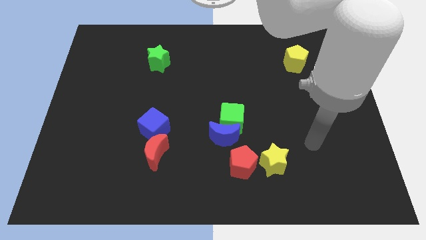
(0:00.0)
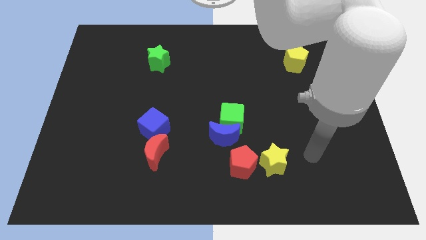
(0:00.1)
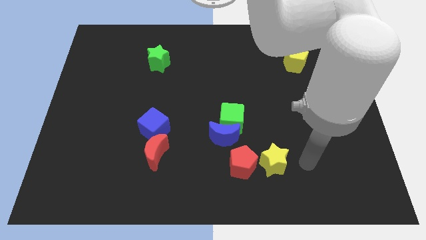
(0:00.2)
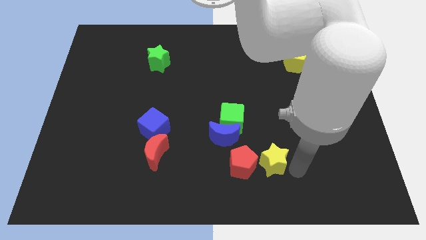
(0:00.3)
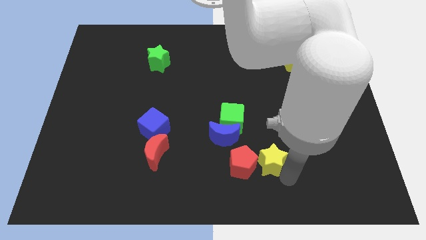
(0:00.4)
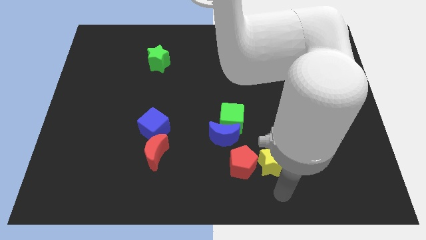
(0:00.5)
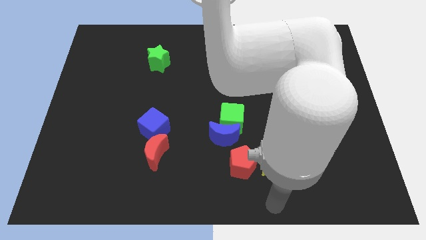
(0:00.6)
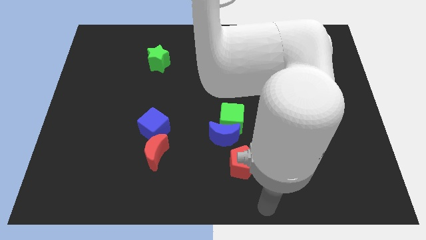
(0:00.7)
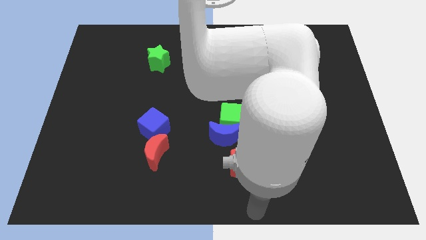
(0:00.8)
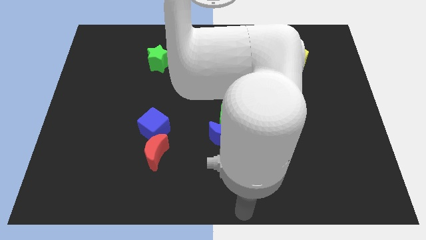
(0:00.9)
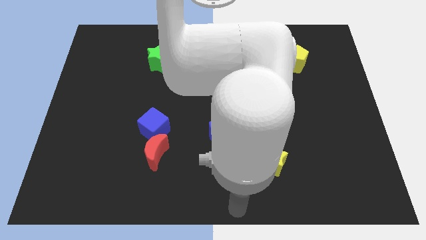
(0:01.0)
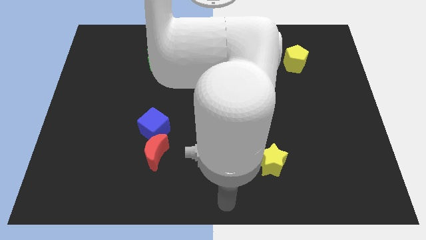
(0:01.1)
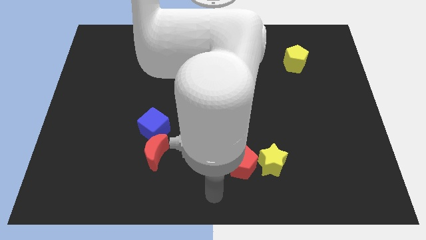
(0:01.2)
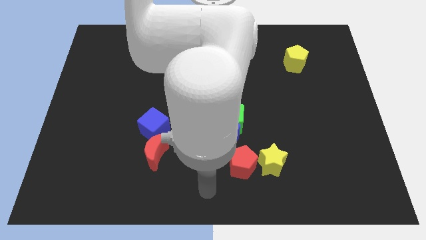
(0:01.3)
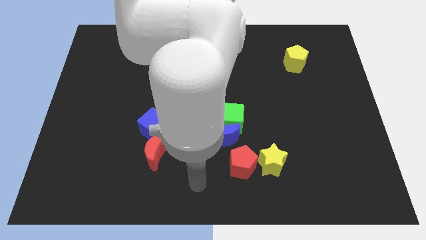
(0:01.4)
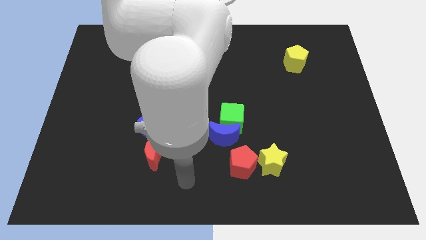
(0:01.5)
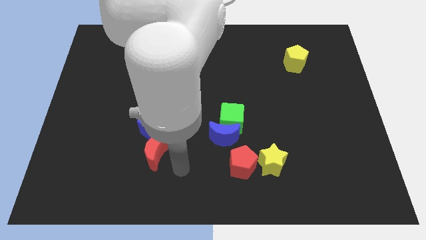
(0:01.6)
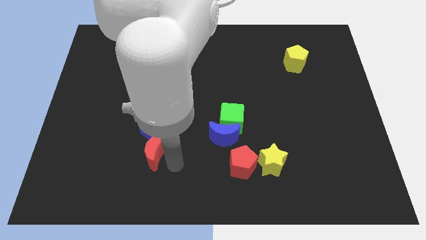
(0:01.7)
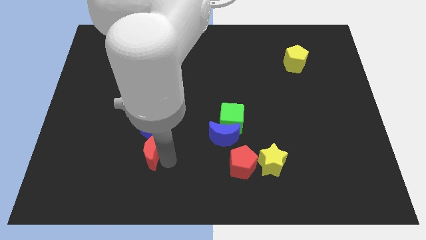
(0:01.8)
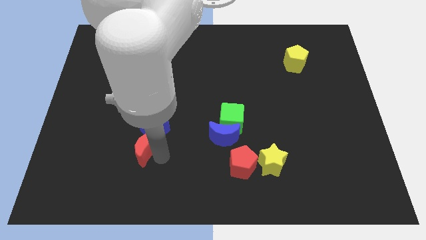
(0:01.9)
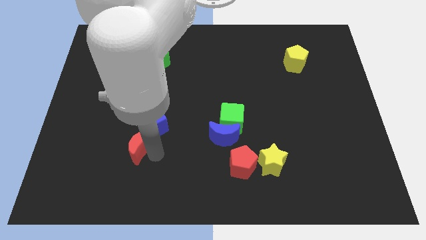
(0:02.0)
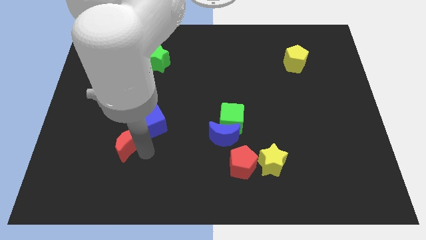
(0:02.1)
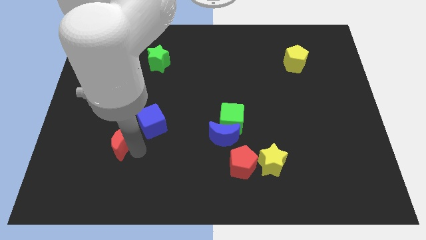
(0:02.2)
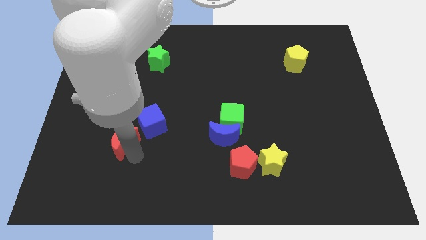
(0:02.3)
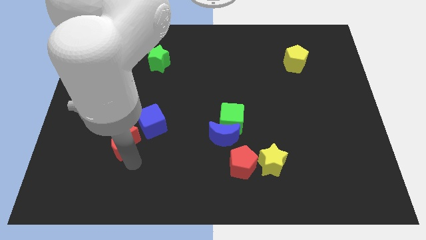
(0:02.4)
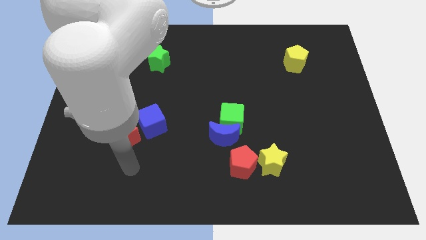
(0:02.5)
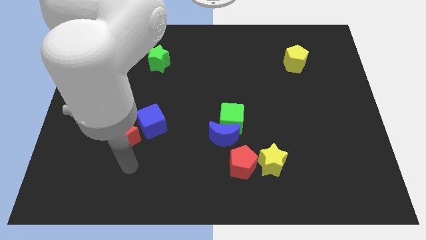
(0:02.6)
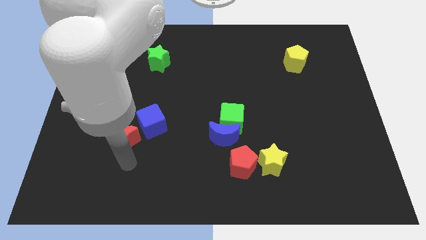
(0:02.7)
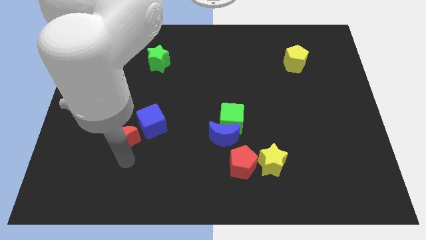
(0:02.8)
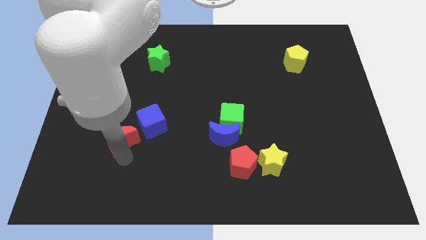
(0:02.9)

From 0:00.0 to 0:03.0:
move the red moon a little bit diagonally up and left

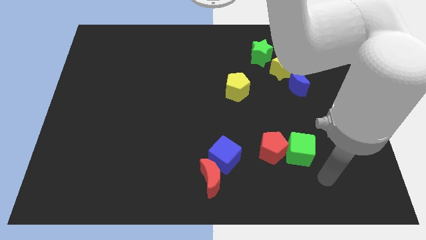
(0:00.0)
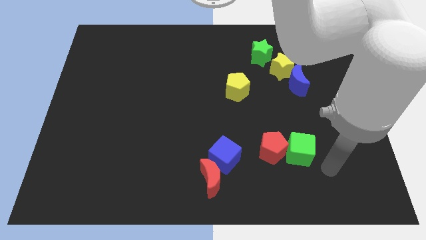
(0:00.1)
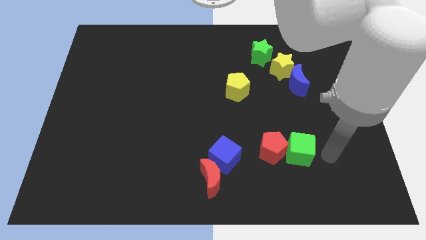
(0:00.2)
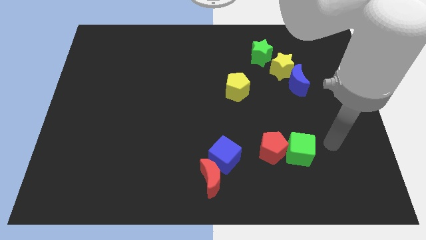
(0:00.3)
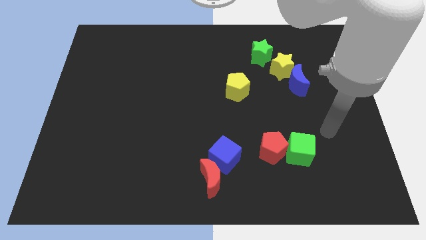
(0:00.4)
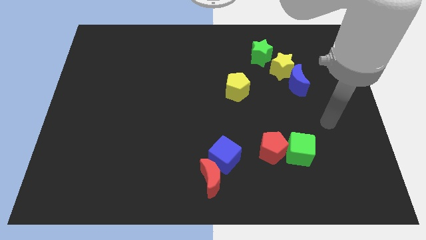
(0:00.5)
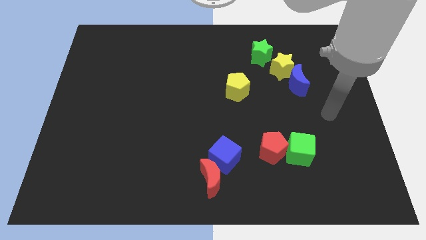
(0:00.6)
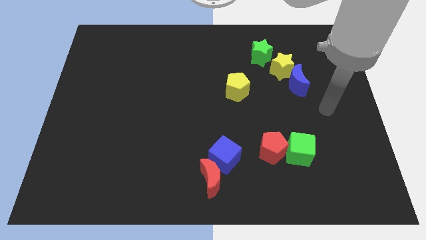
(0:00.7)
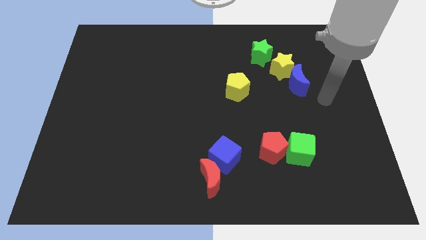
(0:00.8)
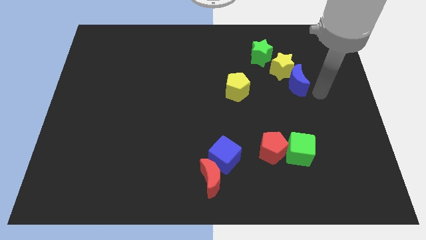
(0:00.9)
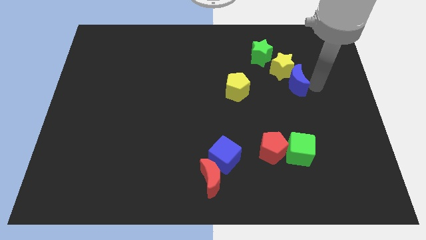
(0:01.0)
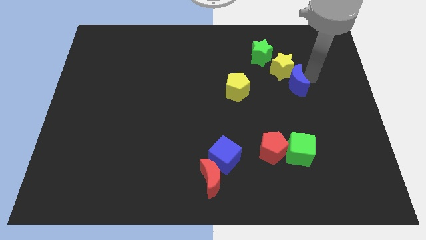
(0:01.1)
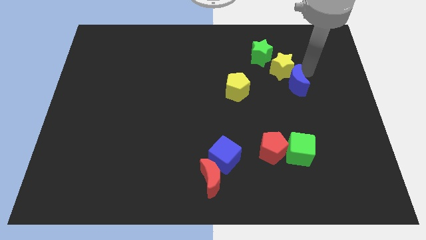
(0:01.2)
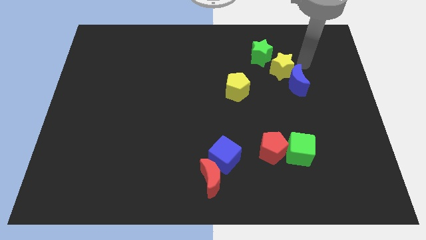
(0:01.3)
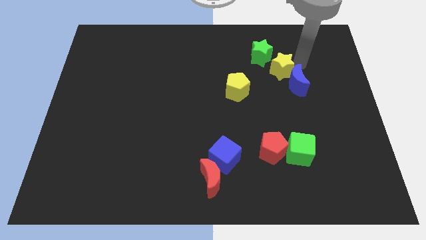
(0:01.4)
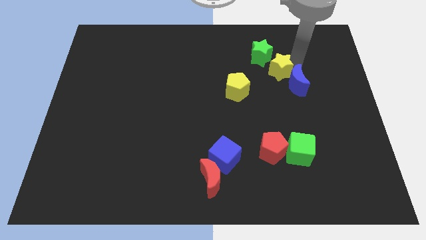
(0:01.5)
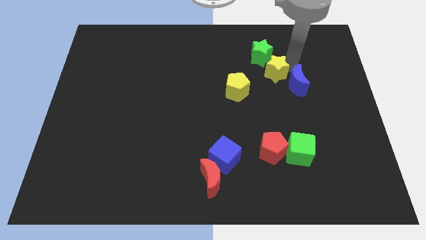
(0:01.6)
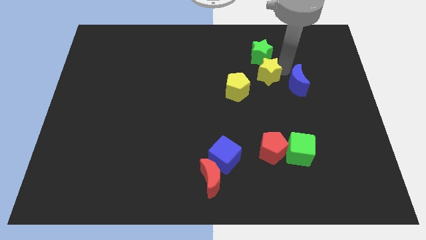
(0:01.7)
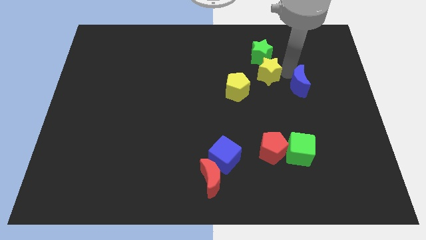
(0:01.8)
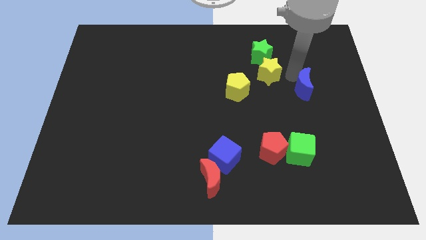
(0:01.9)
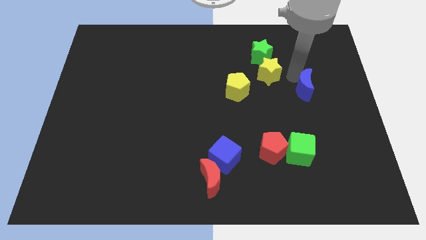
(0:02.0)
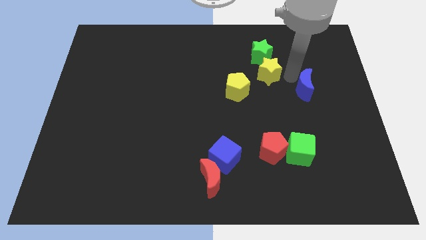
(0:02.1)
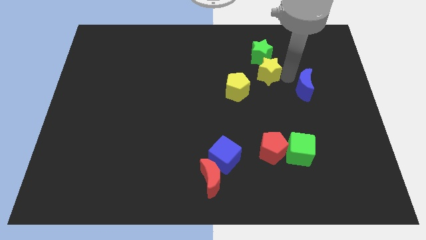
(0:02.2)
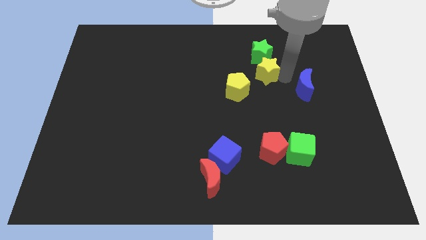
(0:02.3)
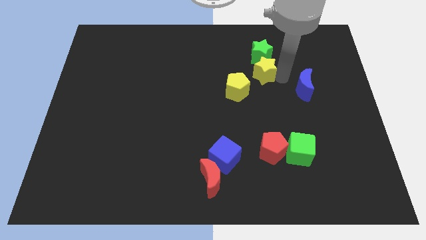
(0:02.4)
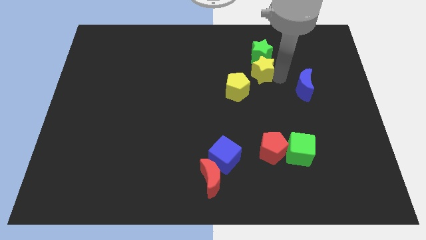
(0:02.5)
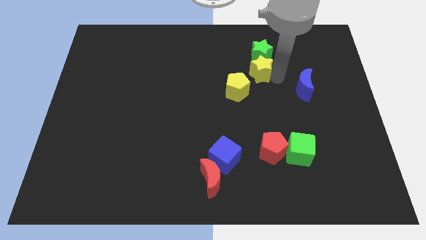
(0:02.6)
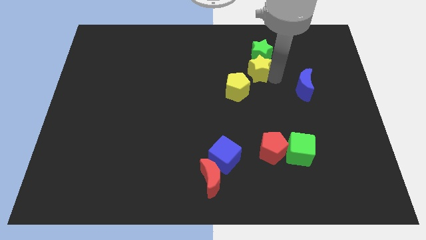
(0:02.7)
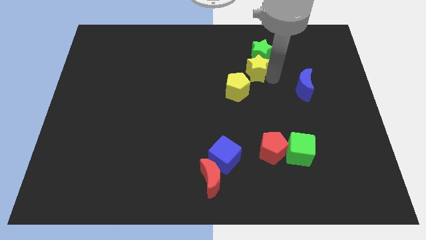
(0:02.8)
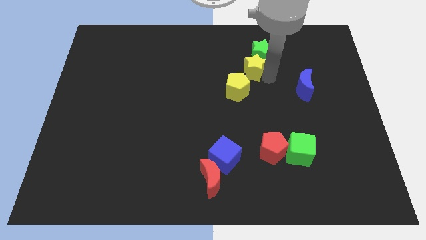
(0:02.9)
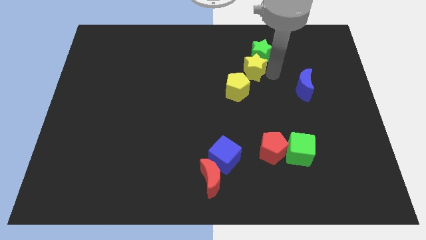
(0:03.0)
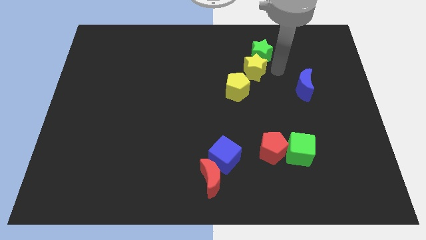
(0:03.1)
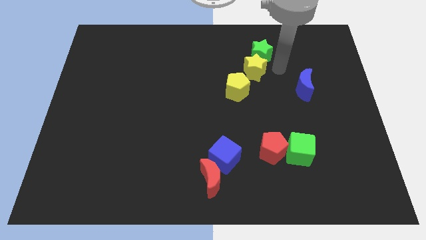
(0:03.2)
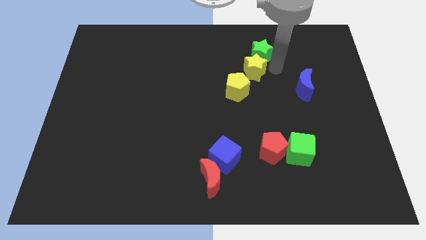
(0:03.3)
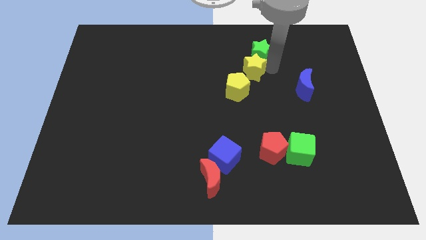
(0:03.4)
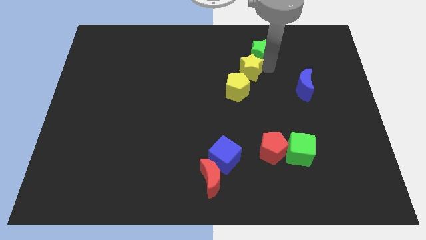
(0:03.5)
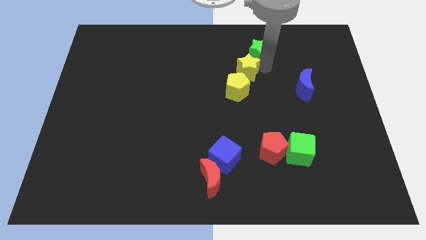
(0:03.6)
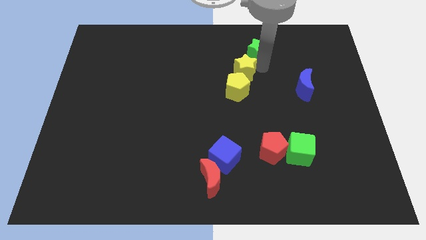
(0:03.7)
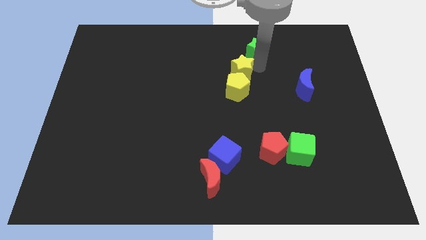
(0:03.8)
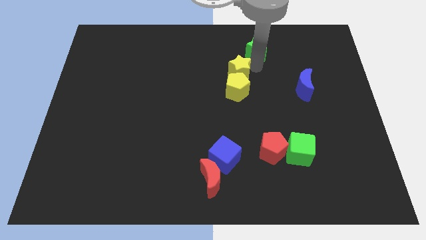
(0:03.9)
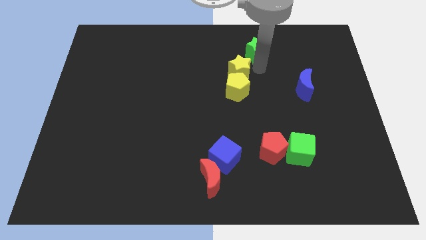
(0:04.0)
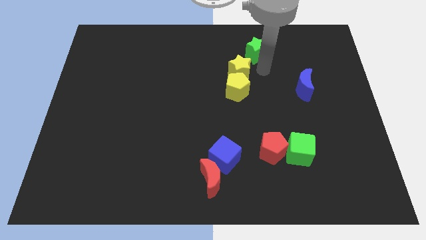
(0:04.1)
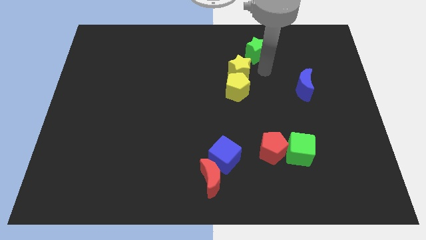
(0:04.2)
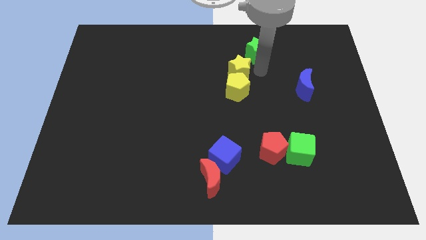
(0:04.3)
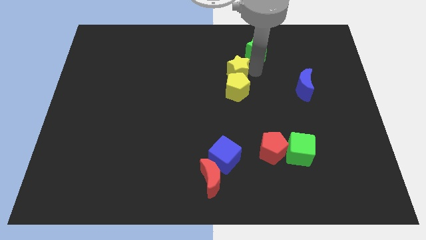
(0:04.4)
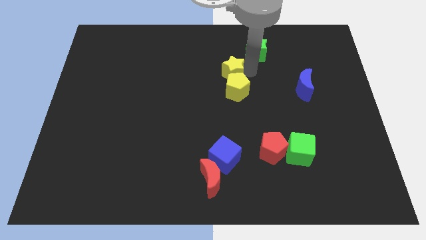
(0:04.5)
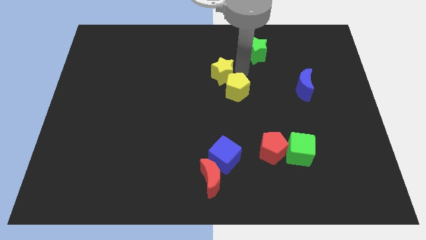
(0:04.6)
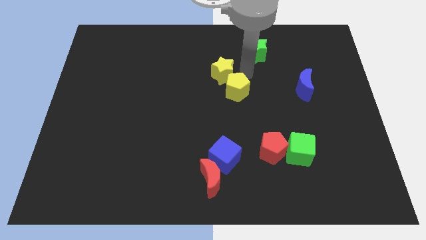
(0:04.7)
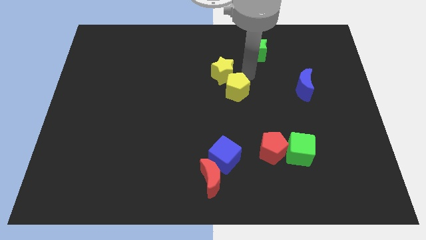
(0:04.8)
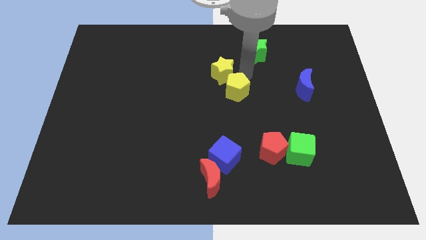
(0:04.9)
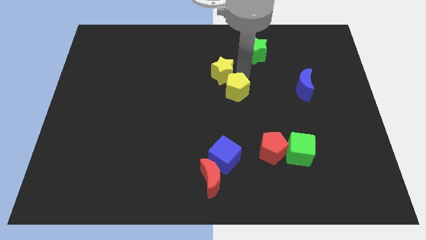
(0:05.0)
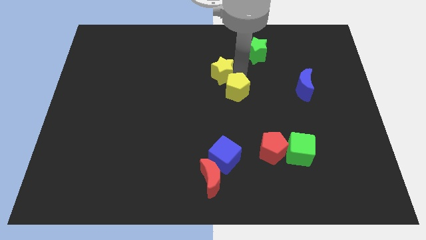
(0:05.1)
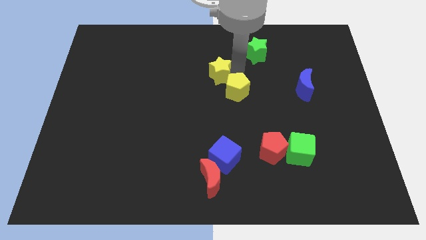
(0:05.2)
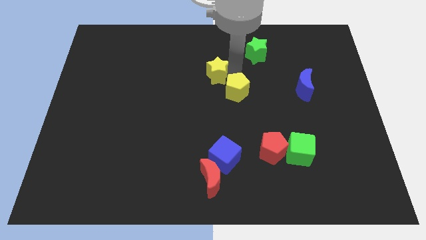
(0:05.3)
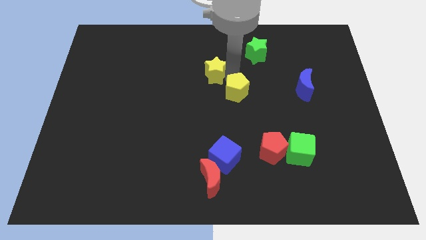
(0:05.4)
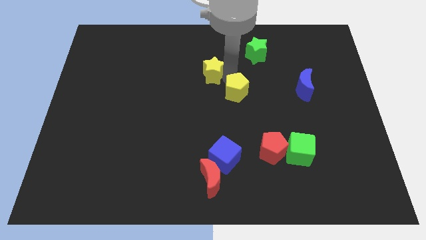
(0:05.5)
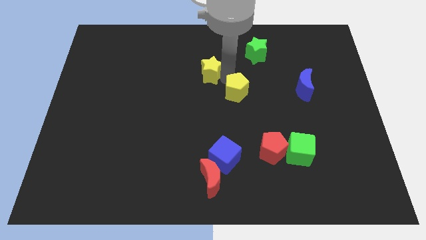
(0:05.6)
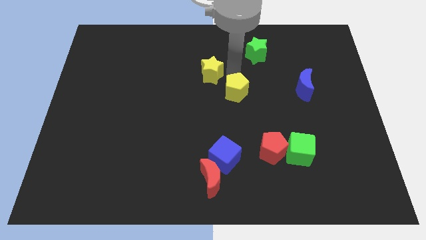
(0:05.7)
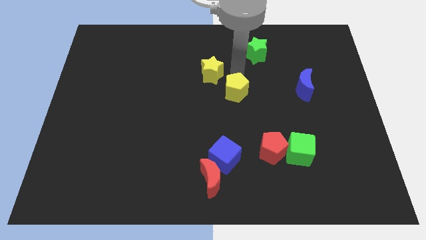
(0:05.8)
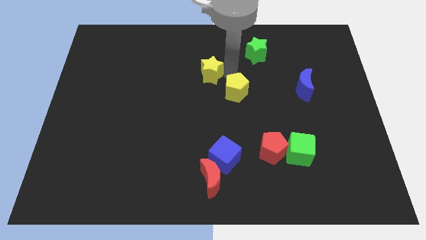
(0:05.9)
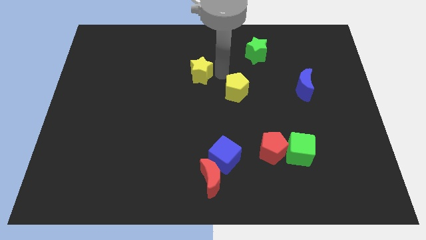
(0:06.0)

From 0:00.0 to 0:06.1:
push the yellow star left
